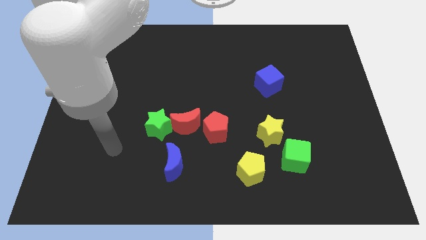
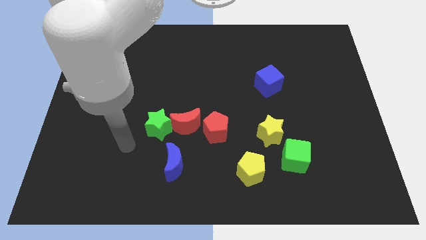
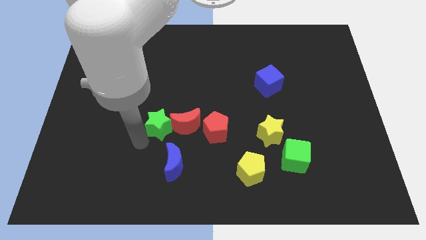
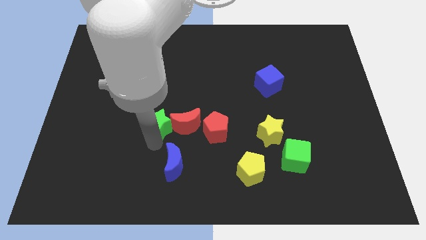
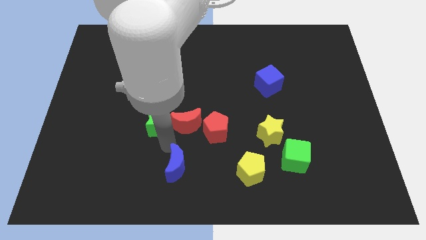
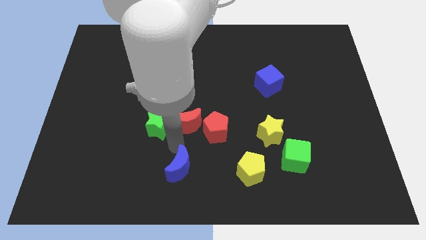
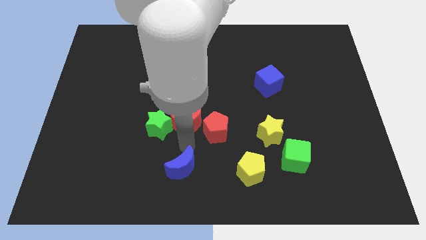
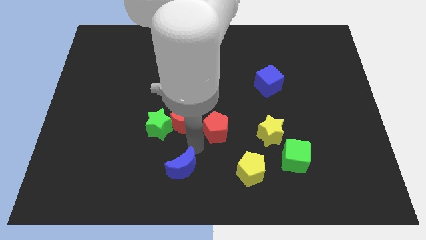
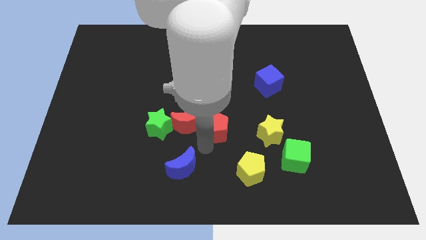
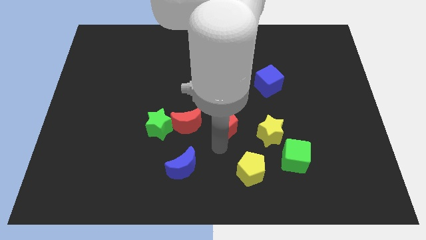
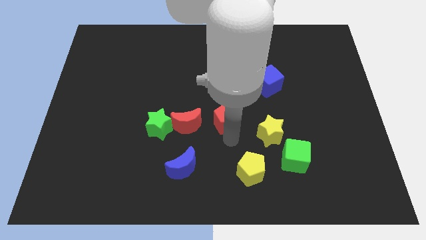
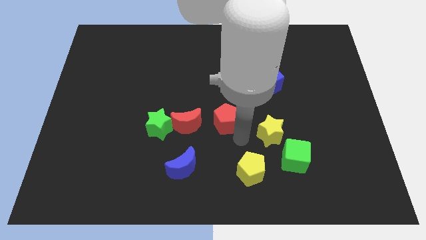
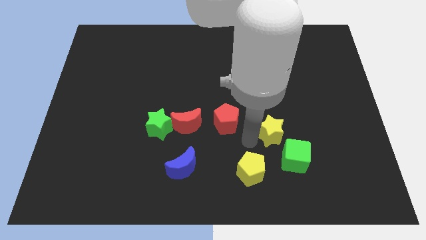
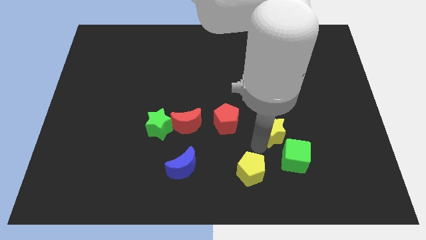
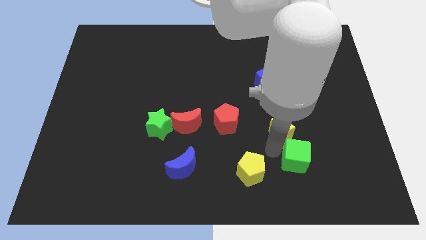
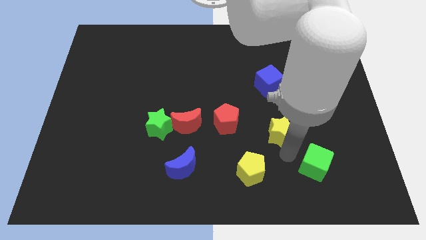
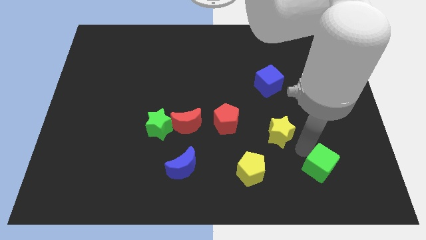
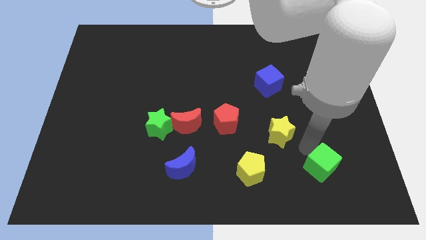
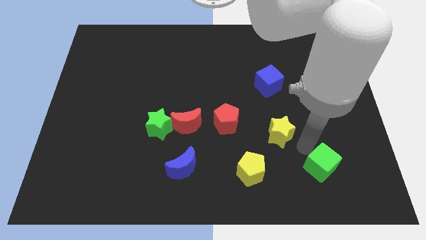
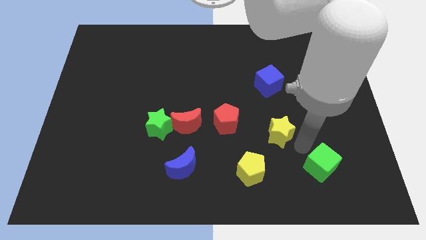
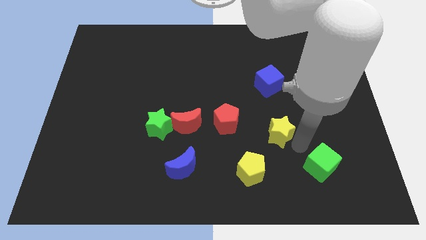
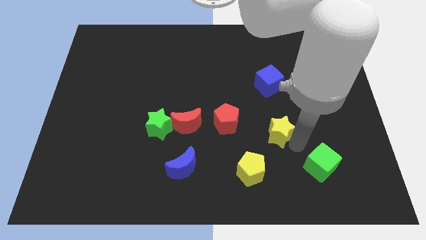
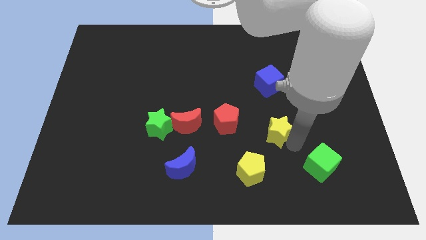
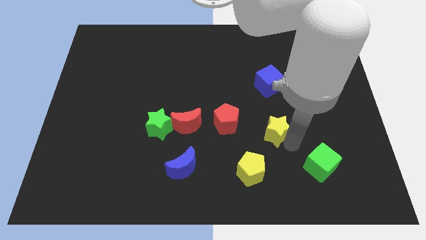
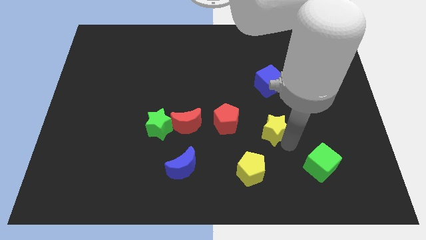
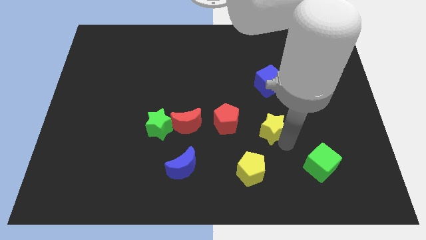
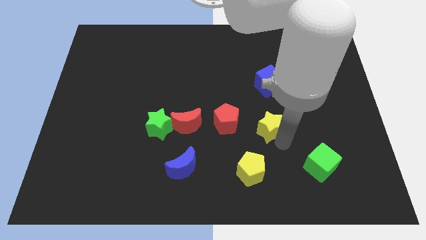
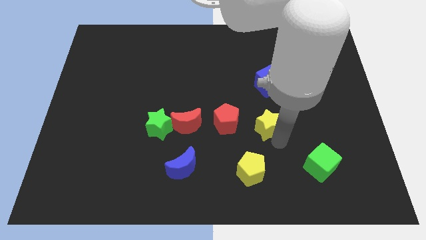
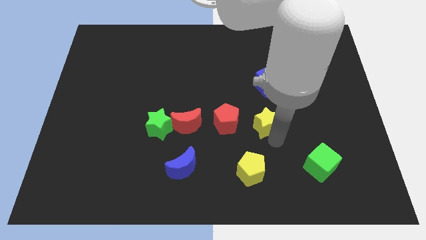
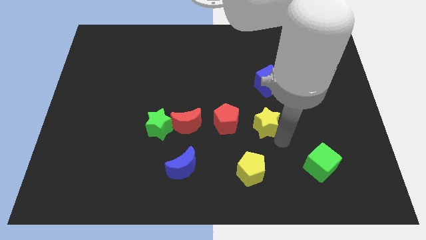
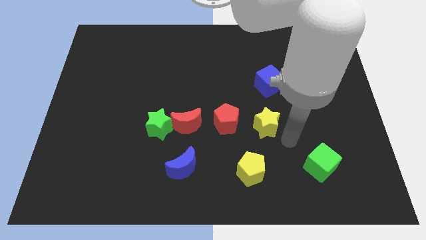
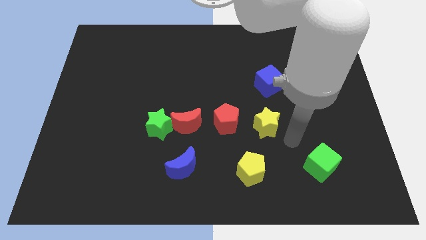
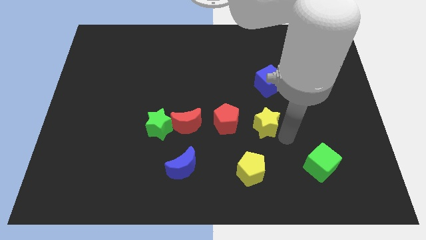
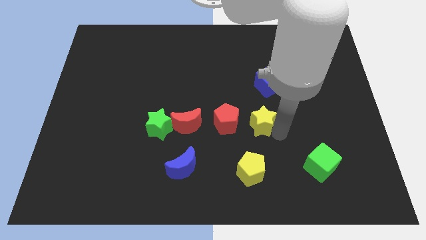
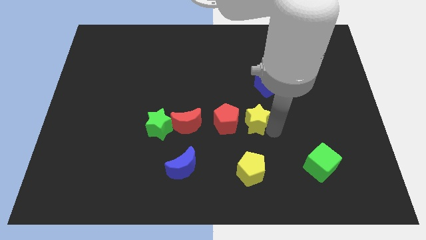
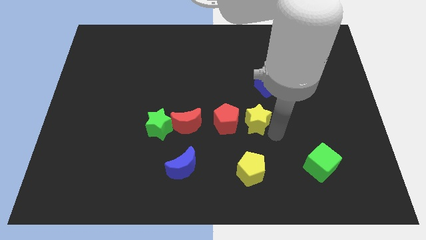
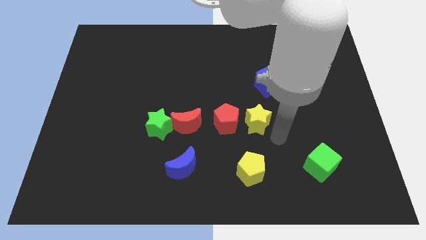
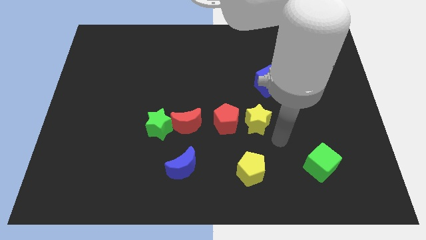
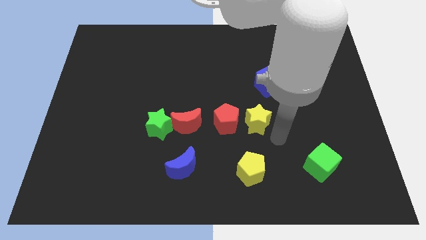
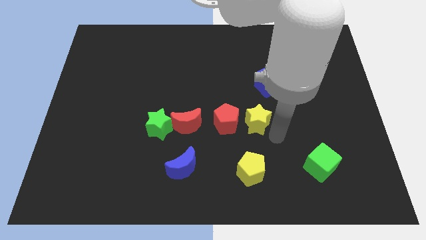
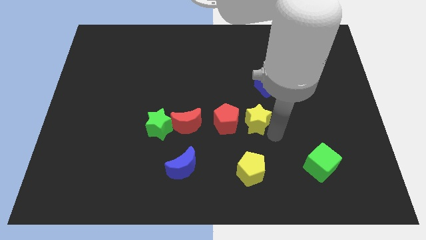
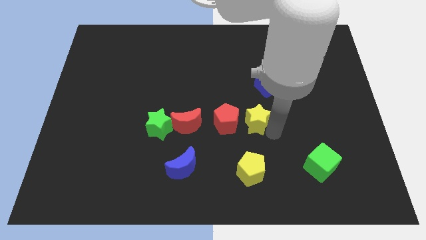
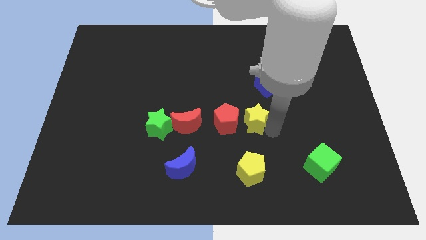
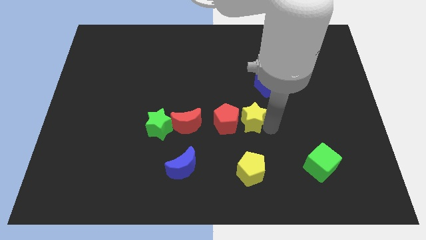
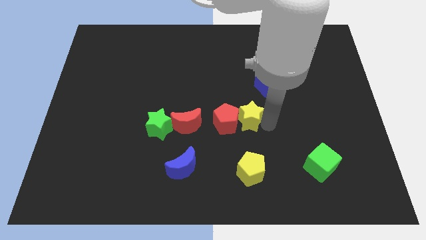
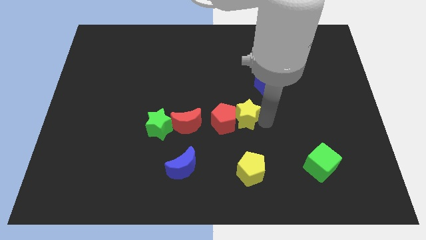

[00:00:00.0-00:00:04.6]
move the yellow star diagonally upwards and to the left somewhat

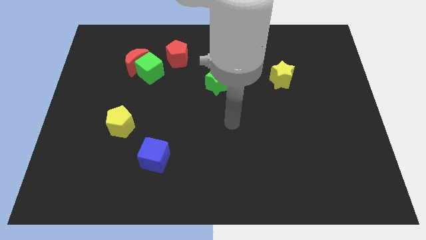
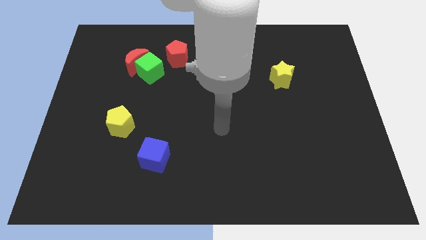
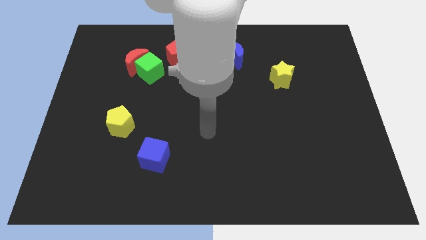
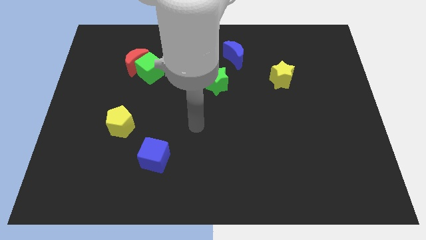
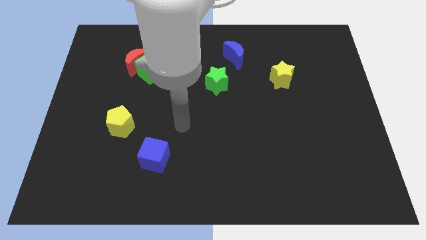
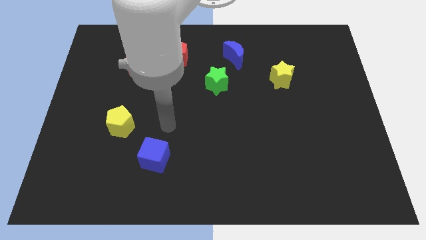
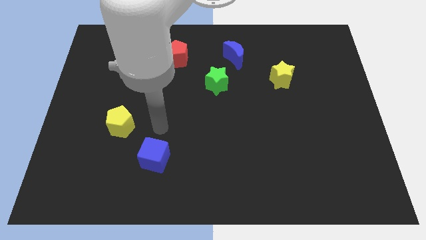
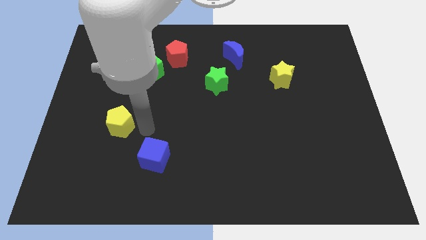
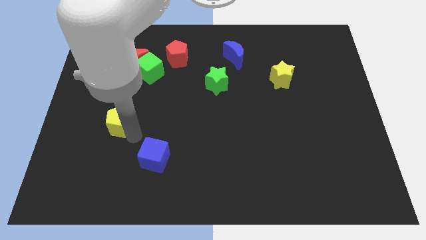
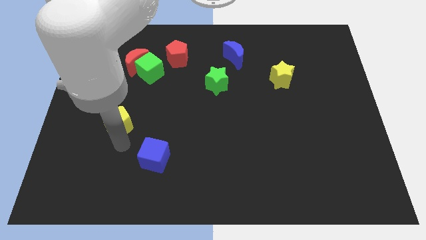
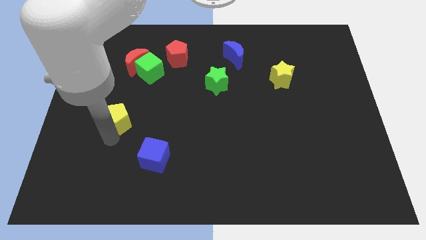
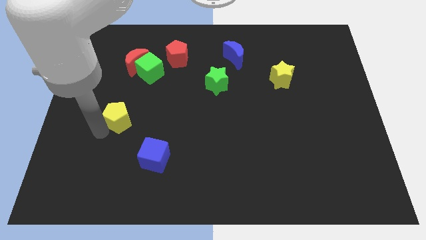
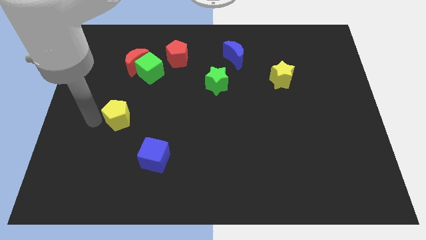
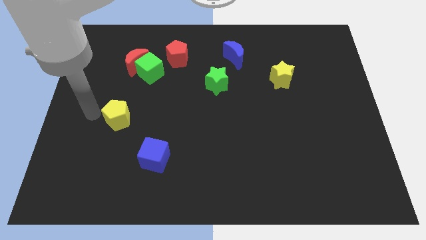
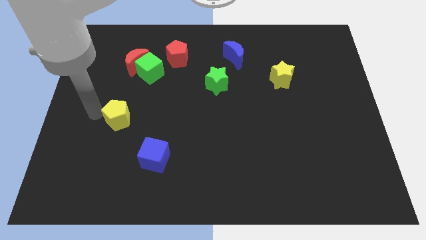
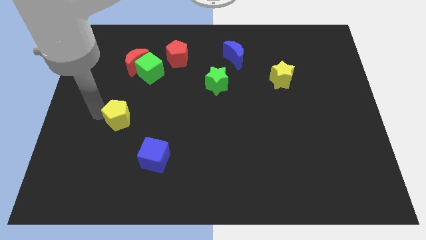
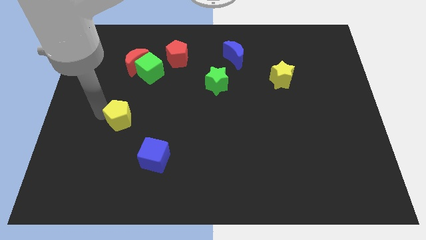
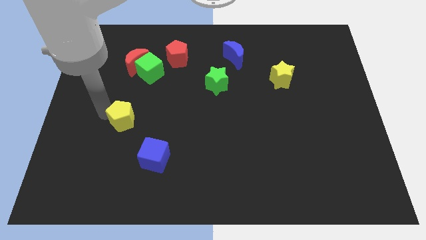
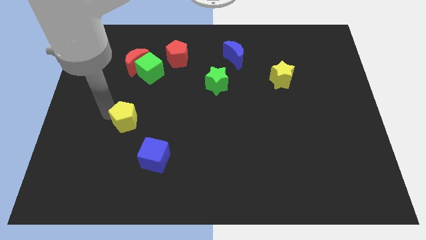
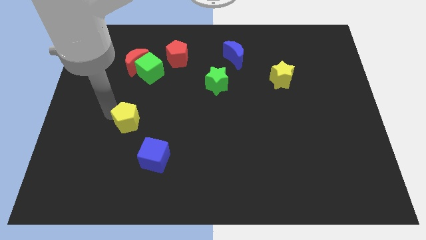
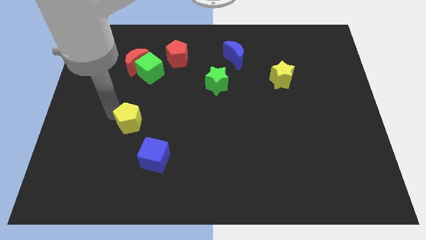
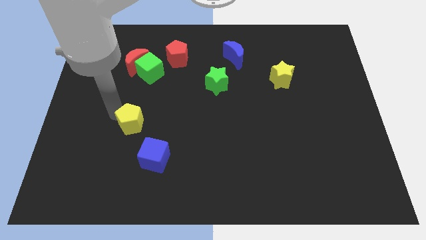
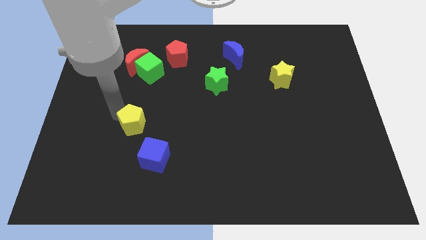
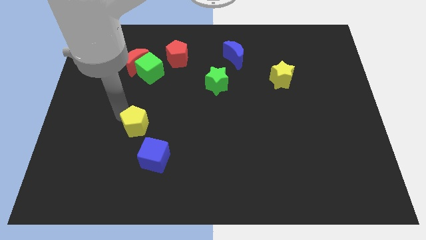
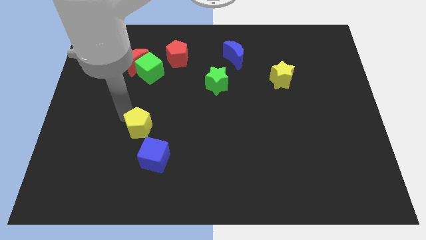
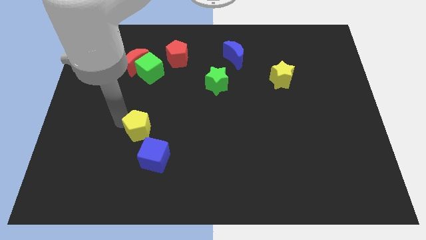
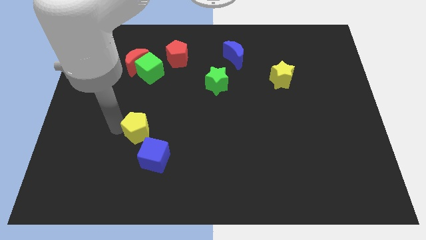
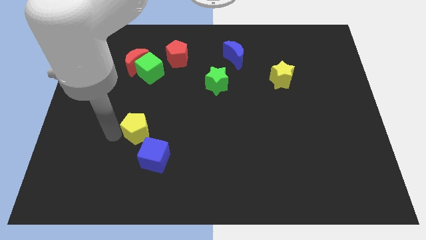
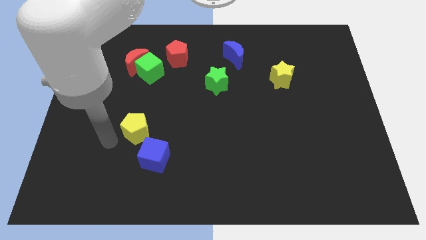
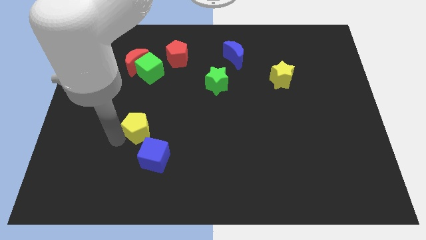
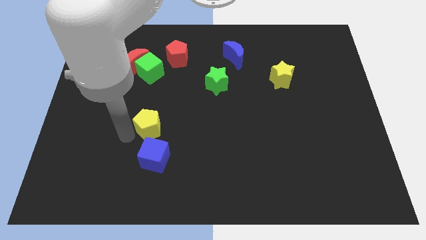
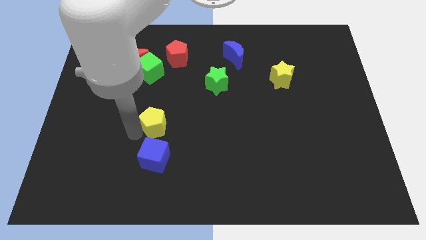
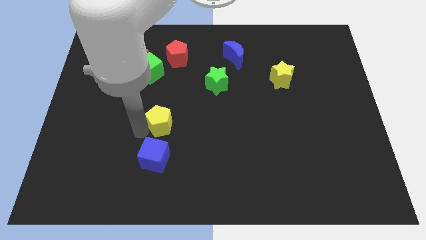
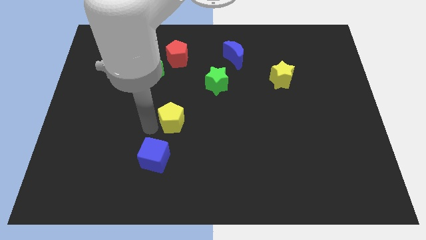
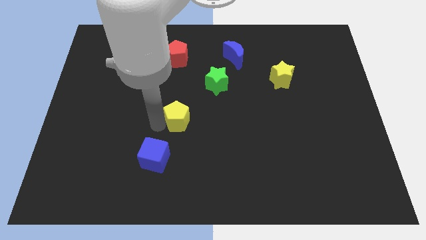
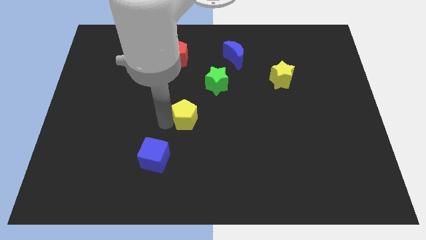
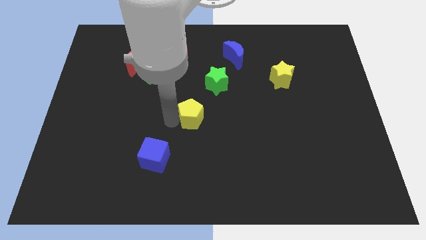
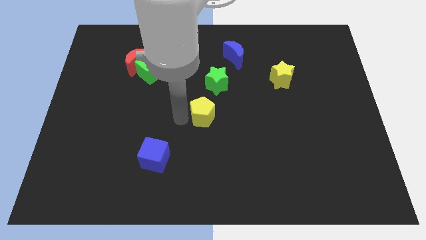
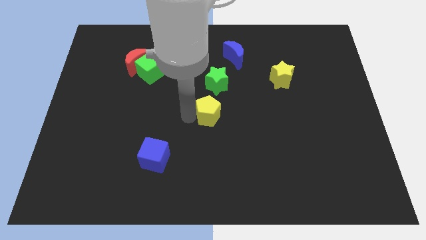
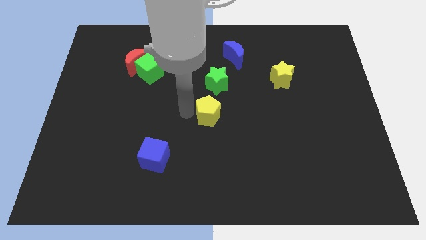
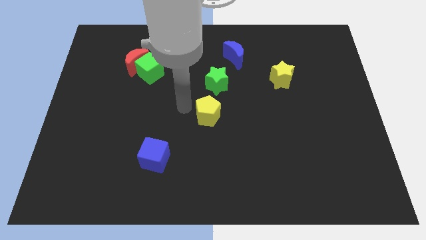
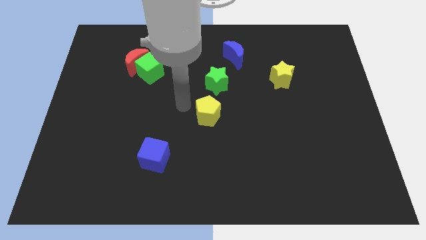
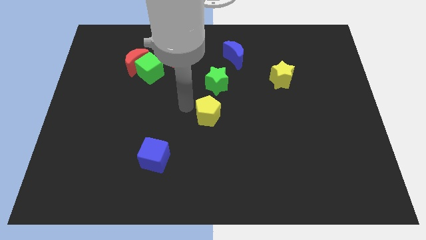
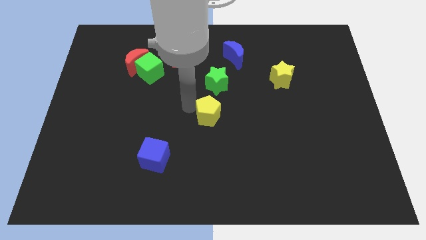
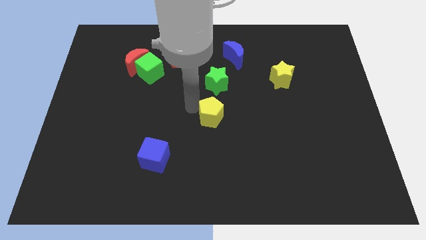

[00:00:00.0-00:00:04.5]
slide the yellow pentagon to the right
